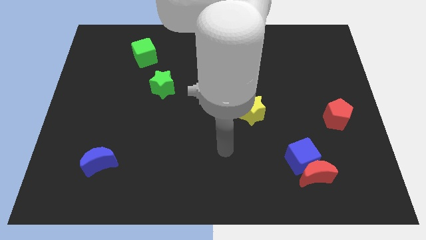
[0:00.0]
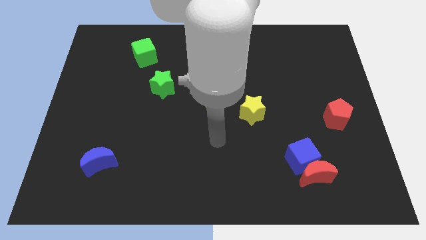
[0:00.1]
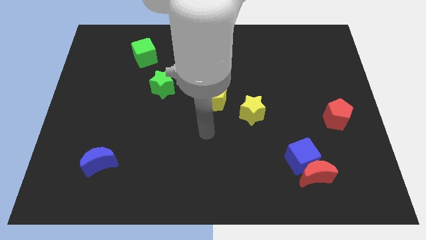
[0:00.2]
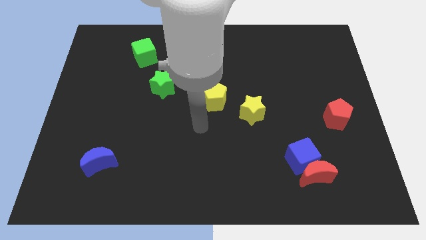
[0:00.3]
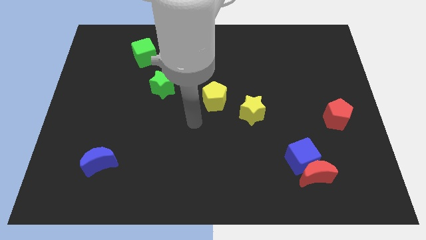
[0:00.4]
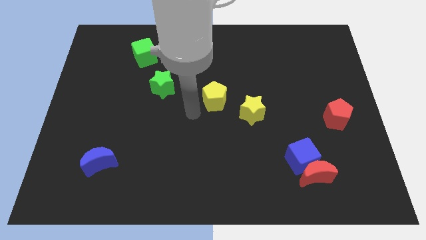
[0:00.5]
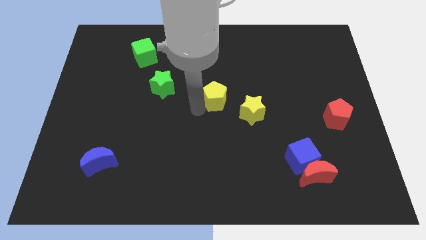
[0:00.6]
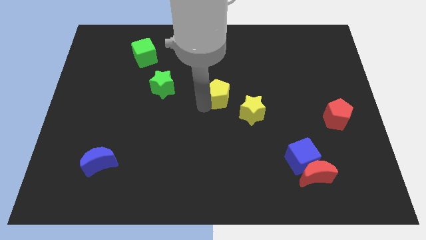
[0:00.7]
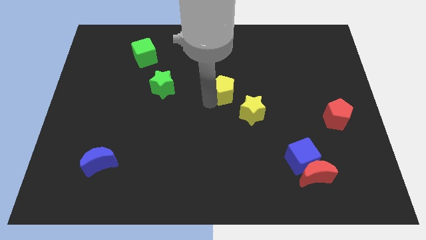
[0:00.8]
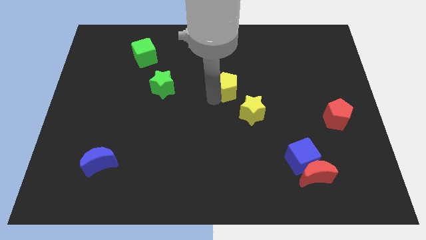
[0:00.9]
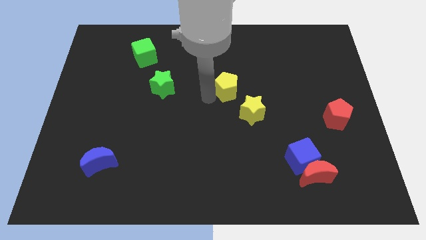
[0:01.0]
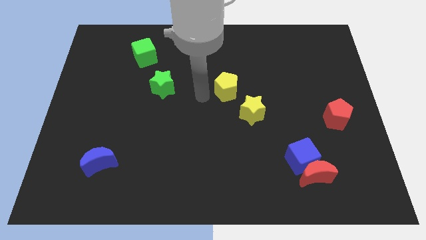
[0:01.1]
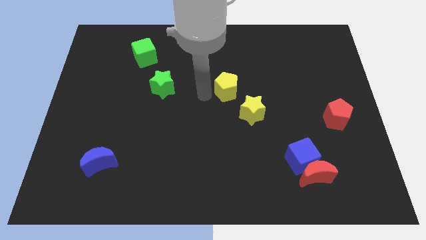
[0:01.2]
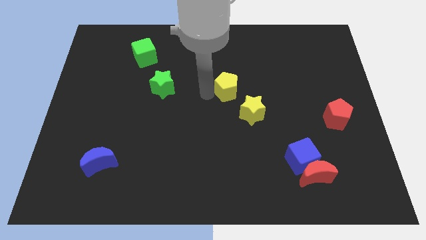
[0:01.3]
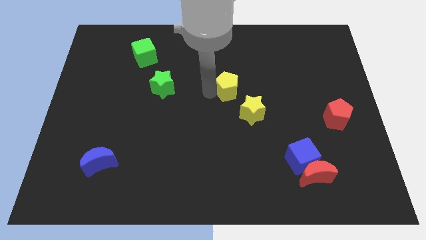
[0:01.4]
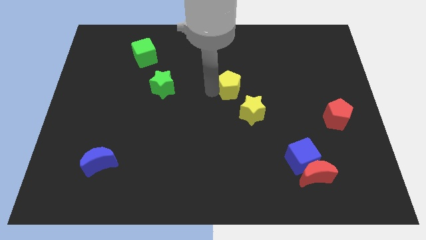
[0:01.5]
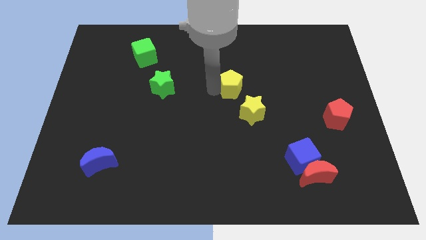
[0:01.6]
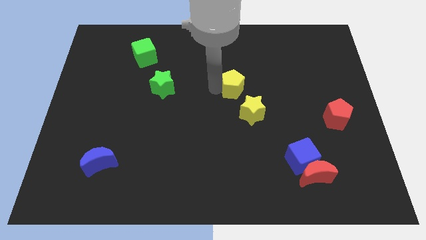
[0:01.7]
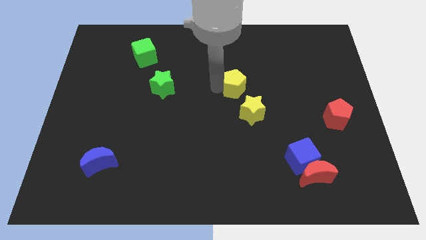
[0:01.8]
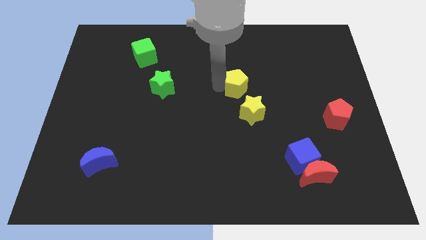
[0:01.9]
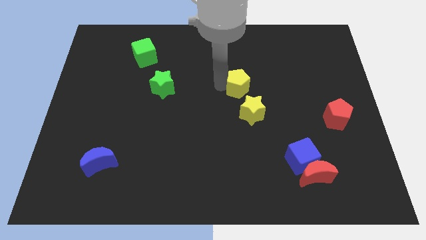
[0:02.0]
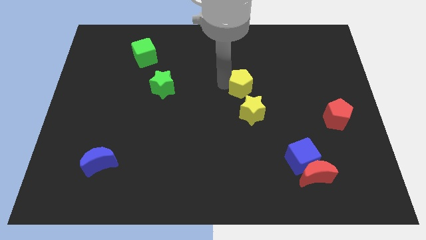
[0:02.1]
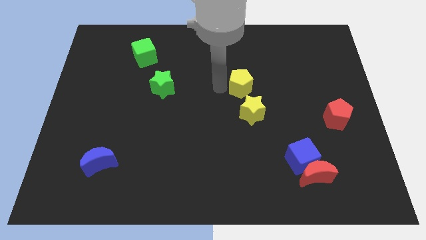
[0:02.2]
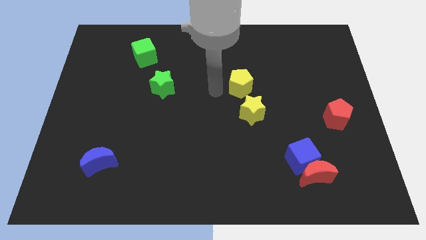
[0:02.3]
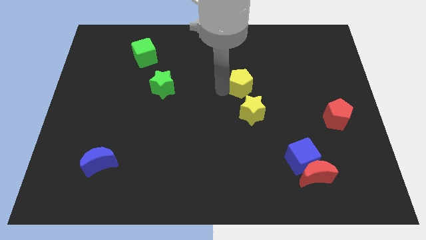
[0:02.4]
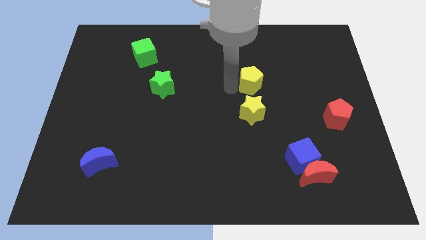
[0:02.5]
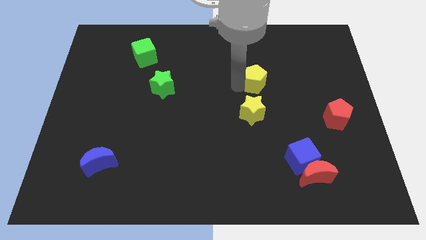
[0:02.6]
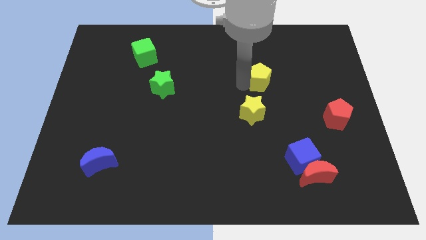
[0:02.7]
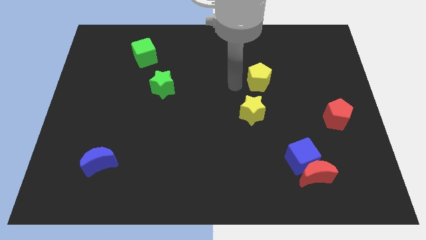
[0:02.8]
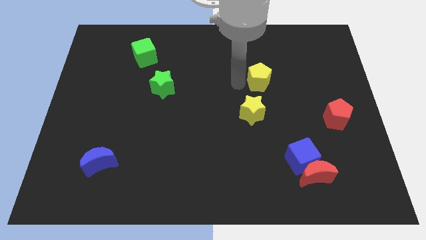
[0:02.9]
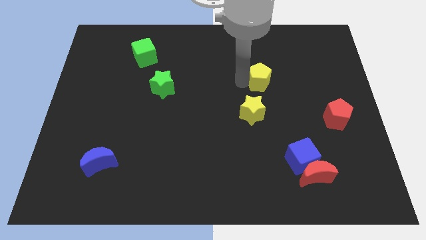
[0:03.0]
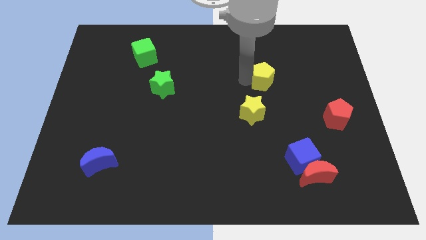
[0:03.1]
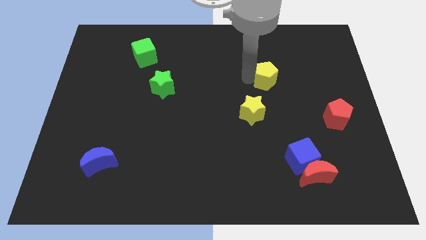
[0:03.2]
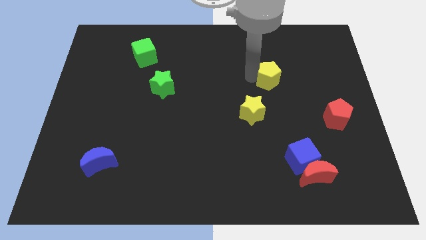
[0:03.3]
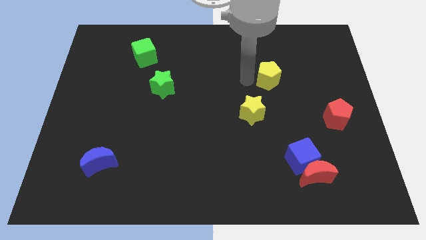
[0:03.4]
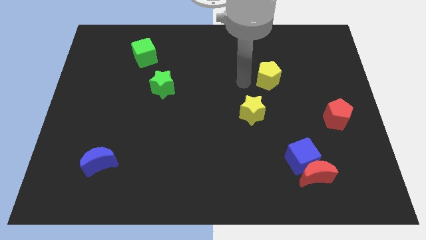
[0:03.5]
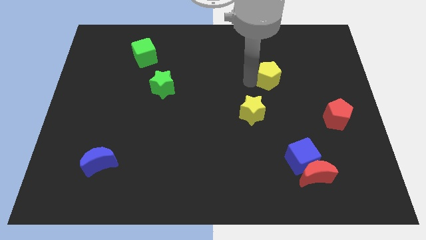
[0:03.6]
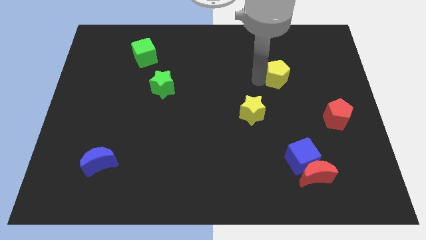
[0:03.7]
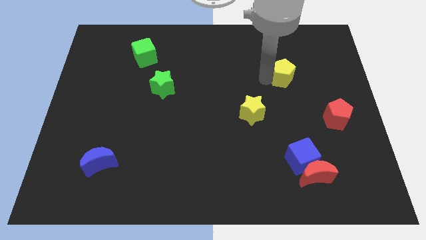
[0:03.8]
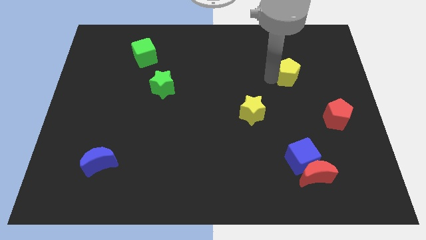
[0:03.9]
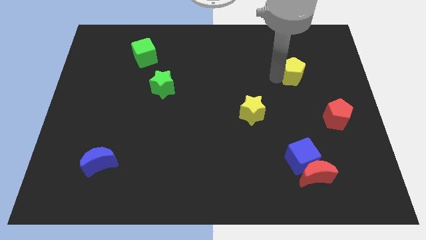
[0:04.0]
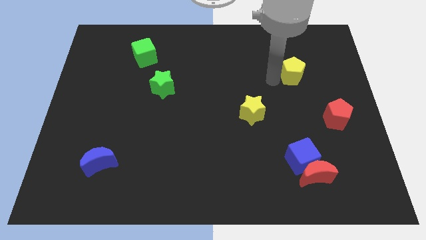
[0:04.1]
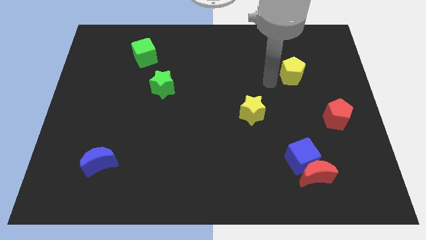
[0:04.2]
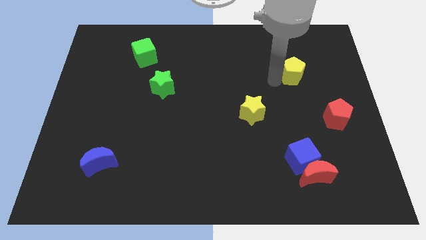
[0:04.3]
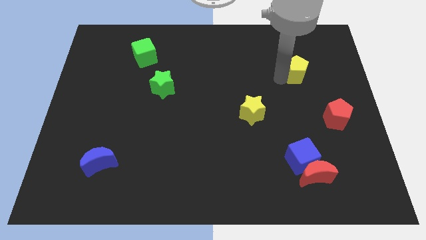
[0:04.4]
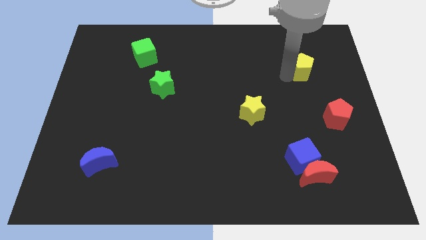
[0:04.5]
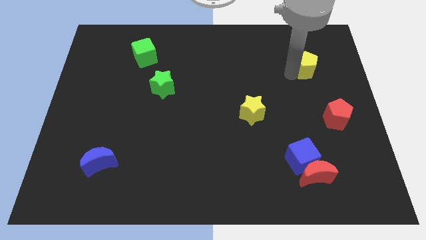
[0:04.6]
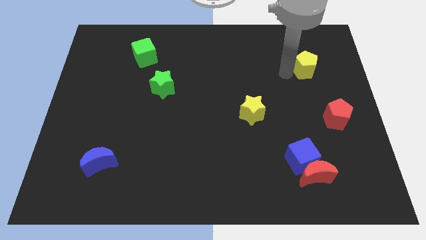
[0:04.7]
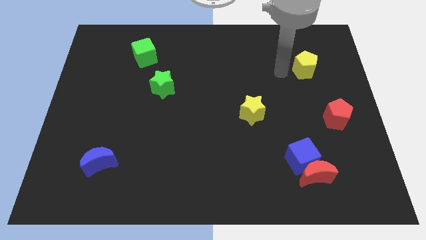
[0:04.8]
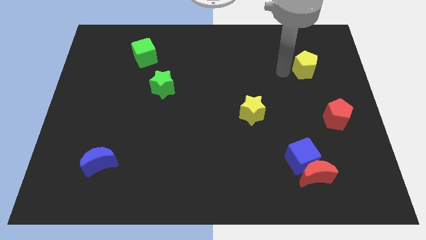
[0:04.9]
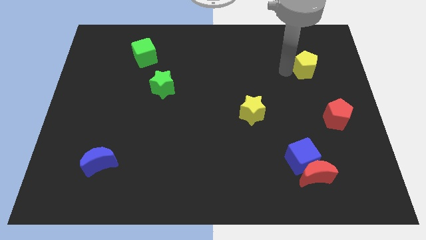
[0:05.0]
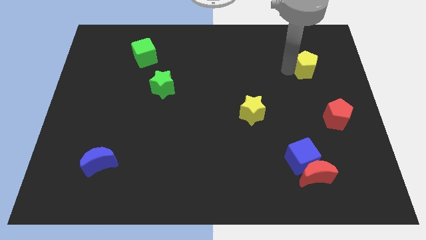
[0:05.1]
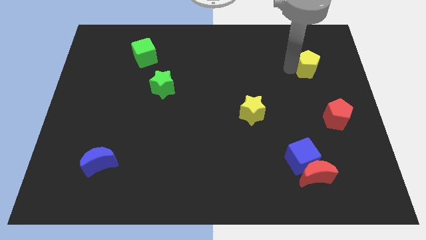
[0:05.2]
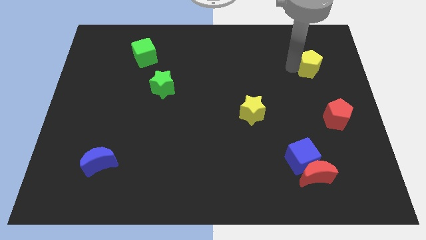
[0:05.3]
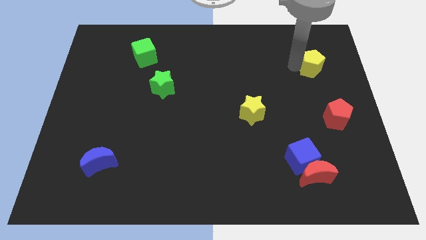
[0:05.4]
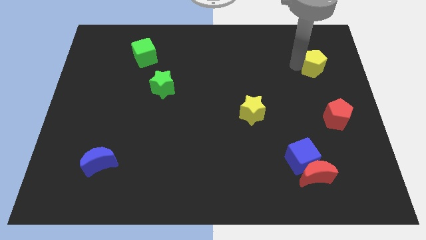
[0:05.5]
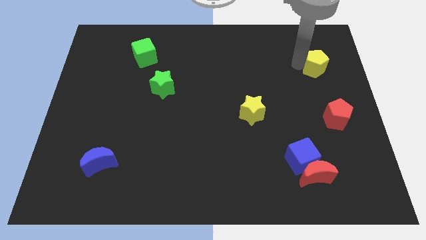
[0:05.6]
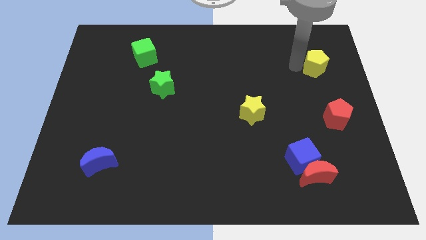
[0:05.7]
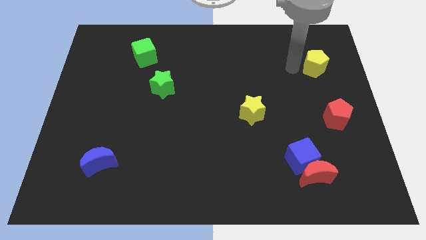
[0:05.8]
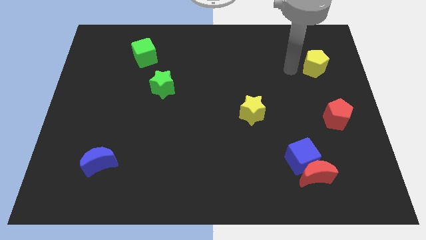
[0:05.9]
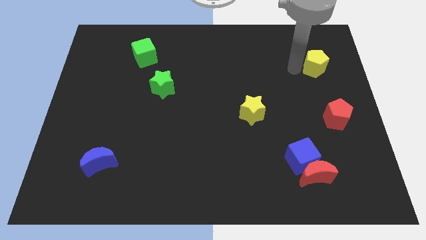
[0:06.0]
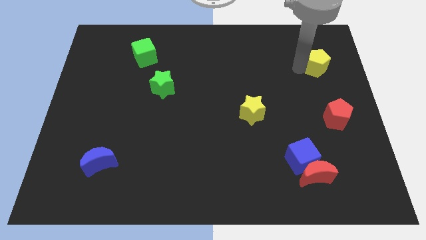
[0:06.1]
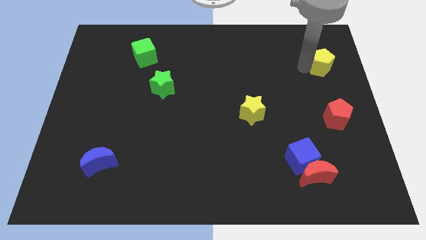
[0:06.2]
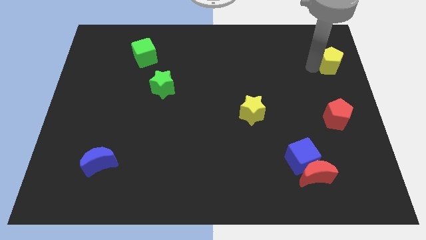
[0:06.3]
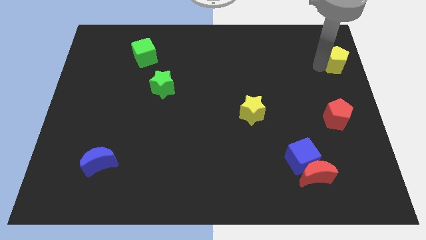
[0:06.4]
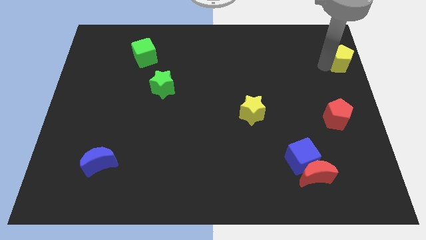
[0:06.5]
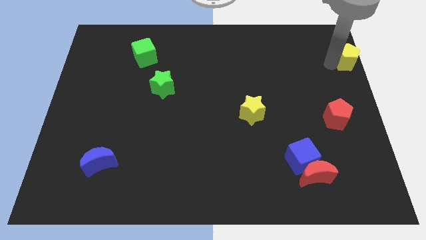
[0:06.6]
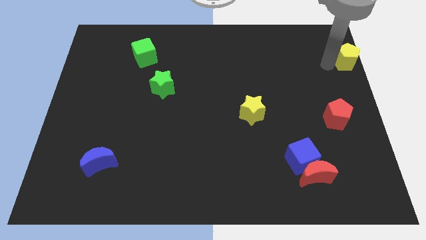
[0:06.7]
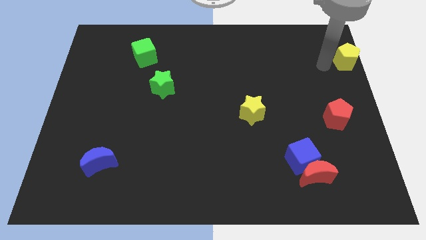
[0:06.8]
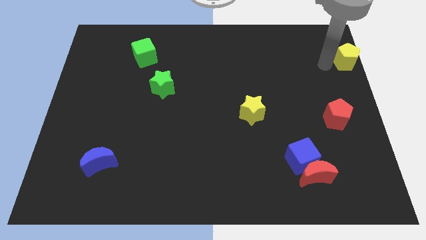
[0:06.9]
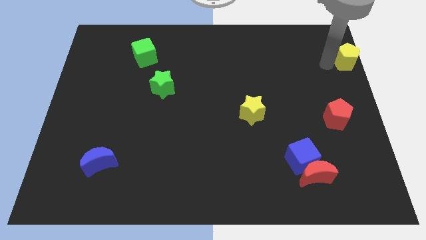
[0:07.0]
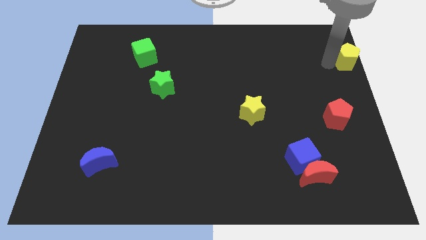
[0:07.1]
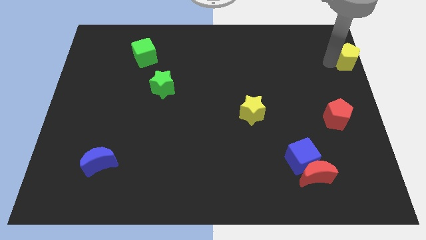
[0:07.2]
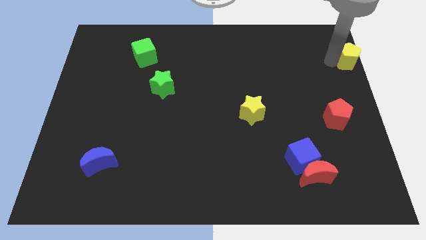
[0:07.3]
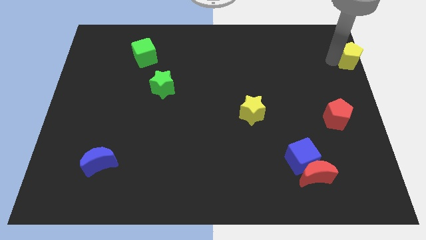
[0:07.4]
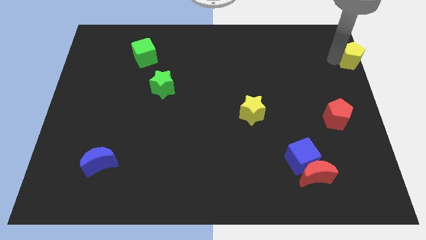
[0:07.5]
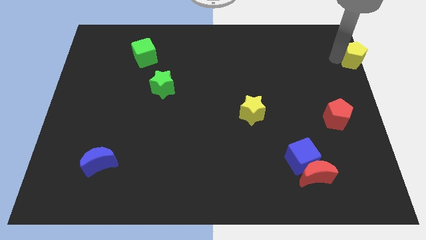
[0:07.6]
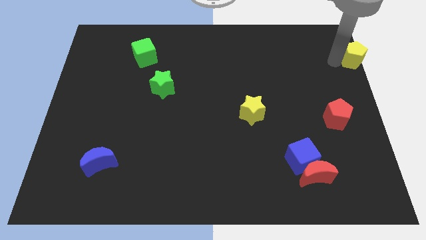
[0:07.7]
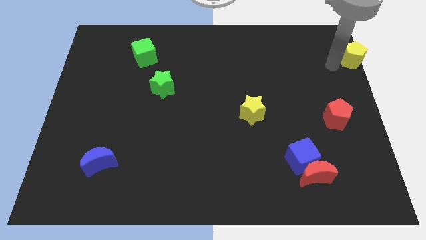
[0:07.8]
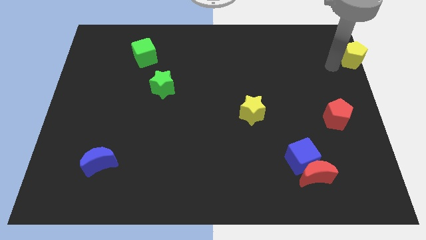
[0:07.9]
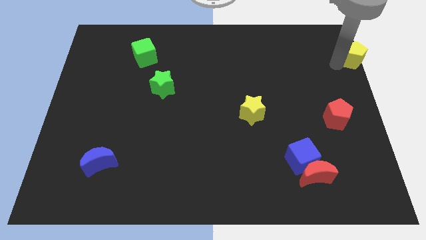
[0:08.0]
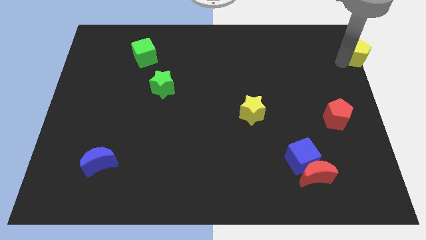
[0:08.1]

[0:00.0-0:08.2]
move the yellow pentagon to the top right corner
